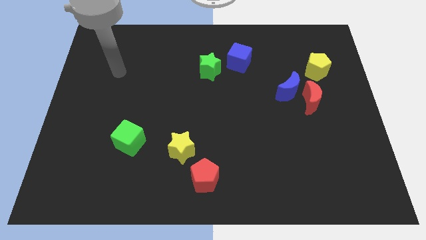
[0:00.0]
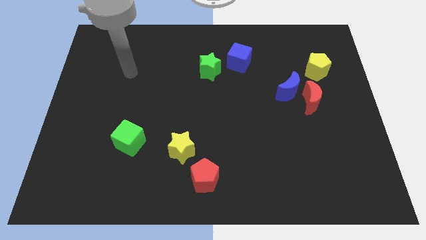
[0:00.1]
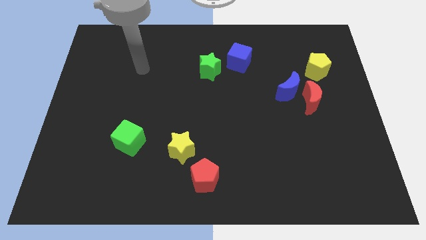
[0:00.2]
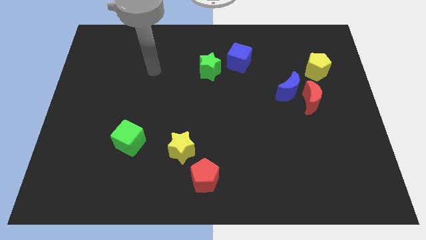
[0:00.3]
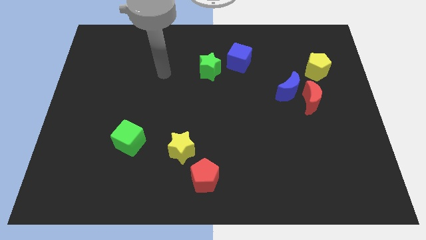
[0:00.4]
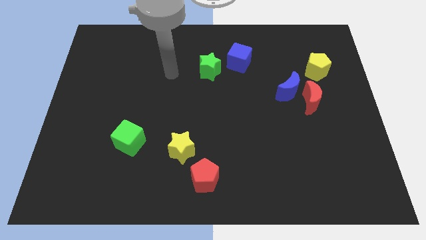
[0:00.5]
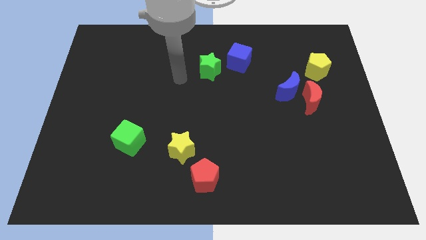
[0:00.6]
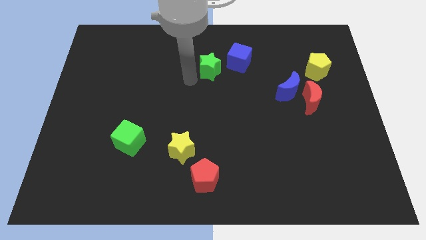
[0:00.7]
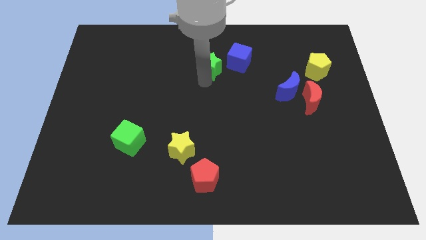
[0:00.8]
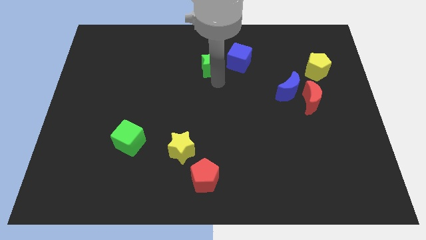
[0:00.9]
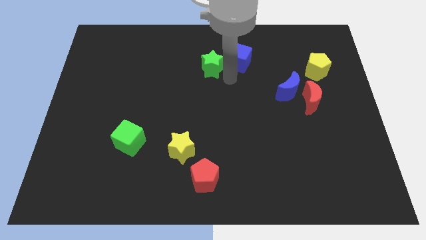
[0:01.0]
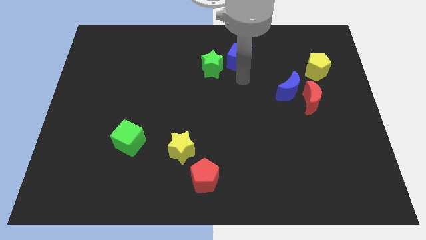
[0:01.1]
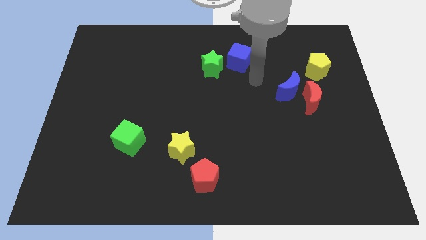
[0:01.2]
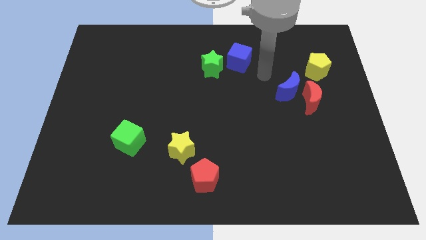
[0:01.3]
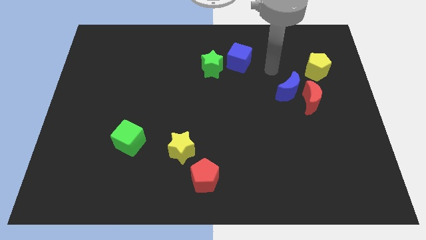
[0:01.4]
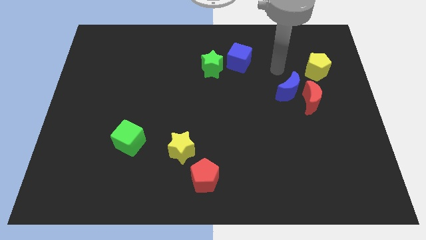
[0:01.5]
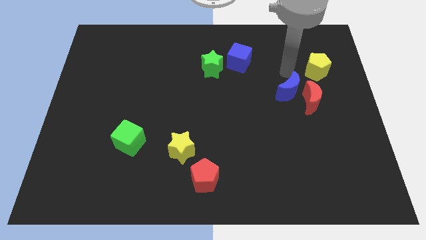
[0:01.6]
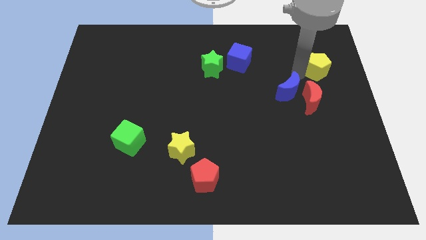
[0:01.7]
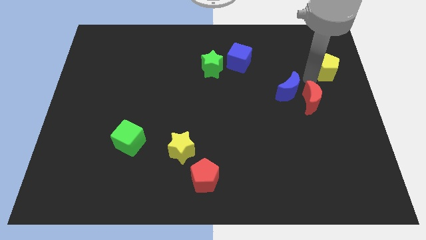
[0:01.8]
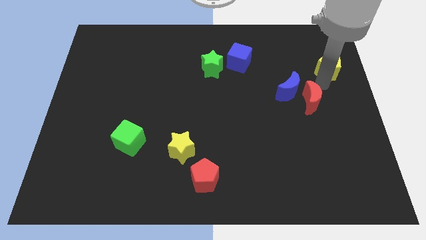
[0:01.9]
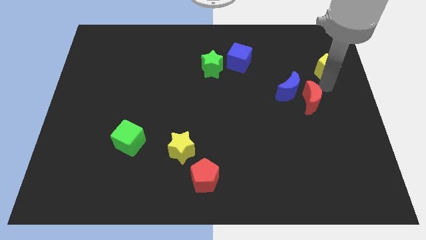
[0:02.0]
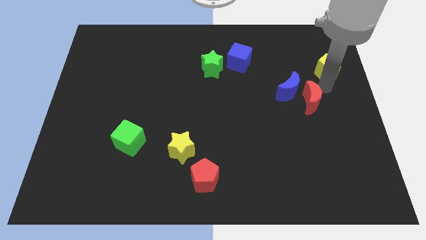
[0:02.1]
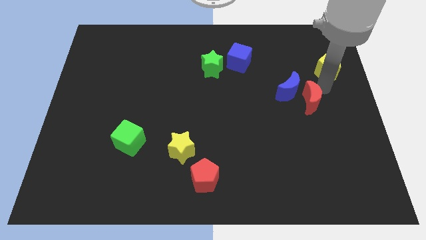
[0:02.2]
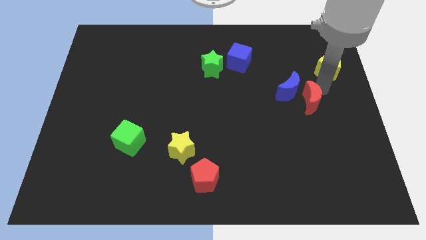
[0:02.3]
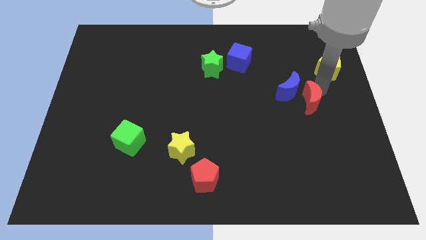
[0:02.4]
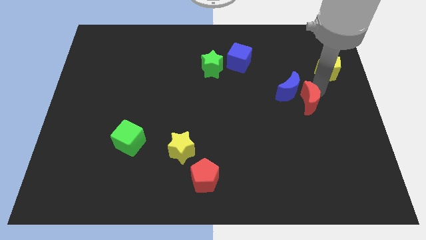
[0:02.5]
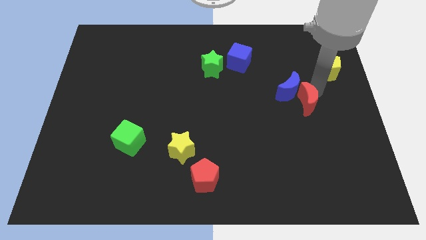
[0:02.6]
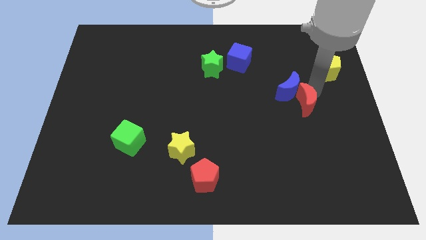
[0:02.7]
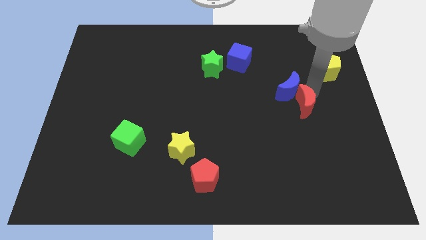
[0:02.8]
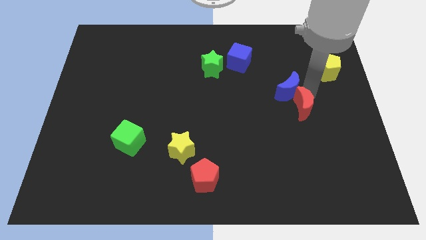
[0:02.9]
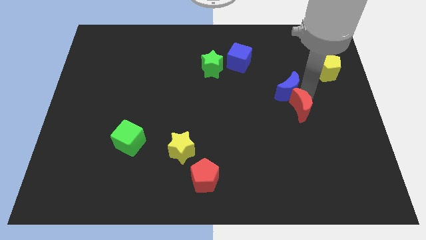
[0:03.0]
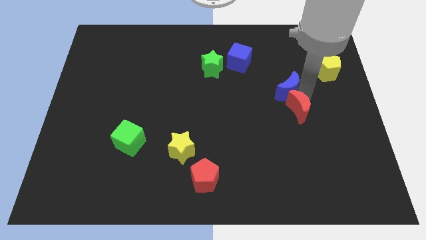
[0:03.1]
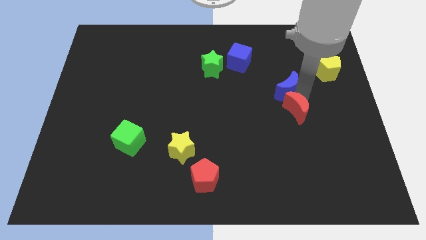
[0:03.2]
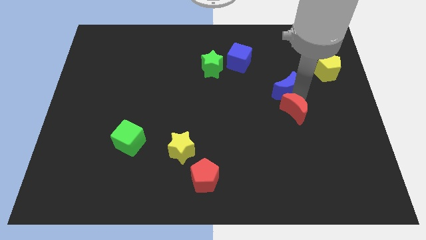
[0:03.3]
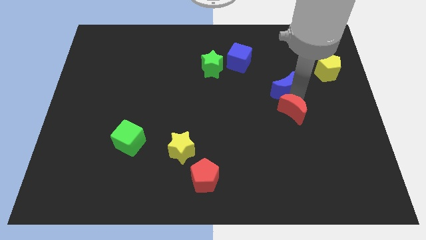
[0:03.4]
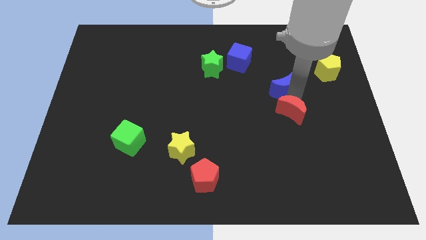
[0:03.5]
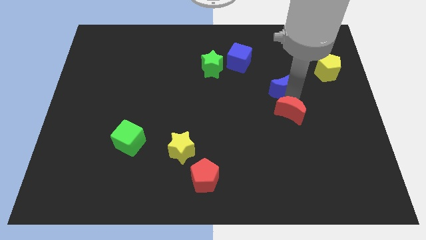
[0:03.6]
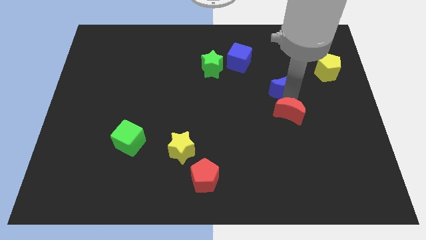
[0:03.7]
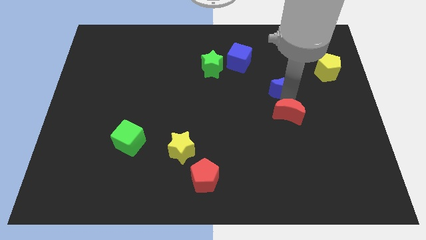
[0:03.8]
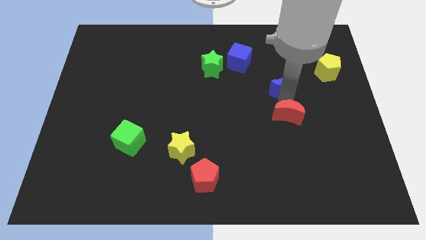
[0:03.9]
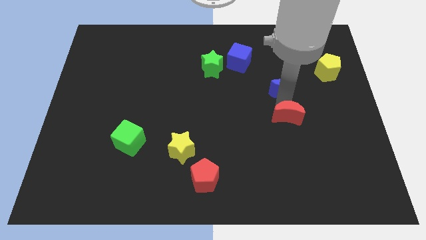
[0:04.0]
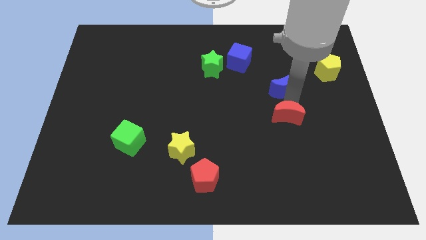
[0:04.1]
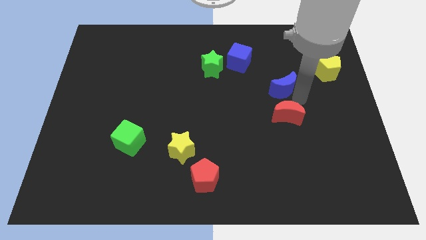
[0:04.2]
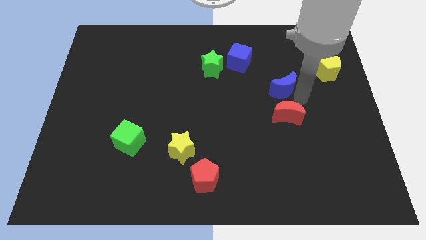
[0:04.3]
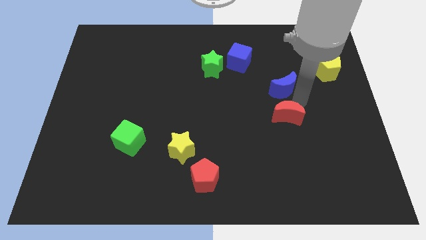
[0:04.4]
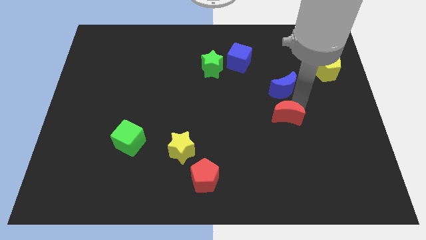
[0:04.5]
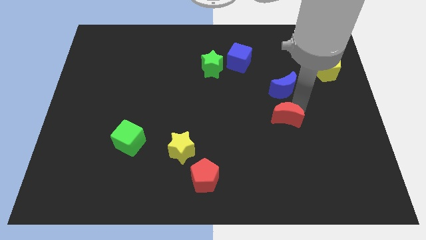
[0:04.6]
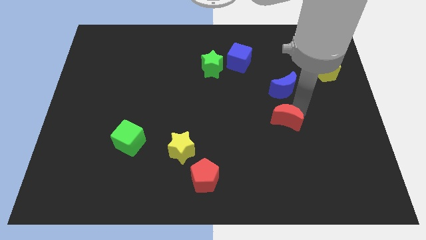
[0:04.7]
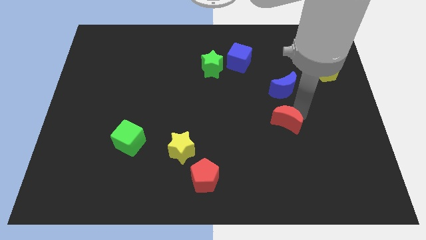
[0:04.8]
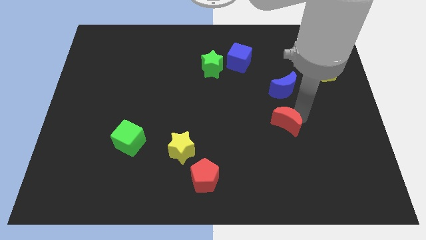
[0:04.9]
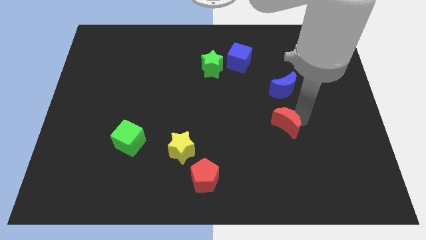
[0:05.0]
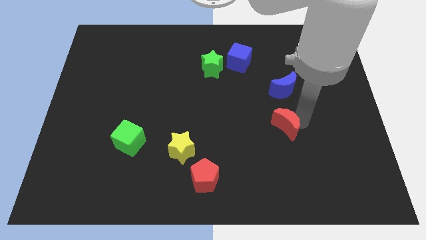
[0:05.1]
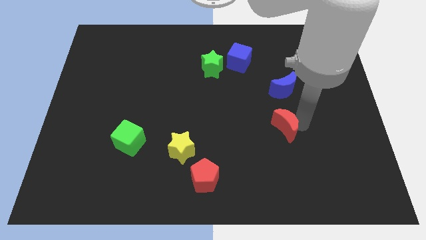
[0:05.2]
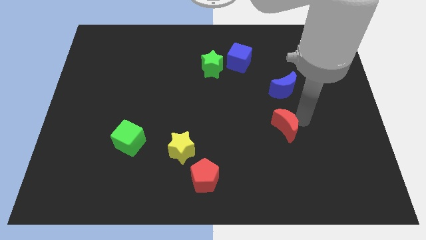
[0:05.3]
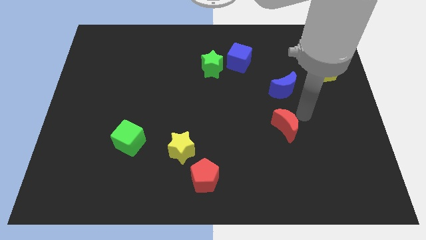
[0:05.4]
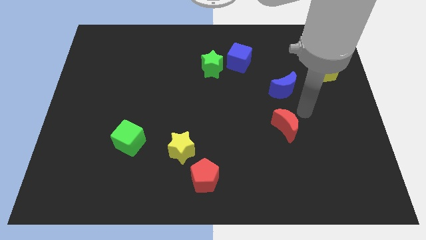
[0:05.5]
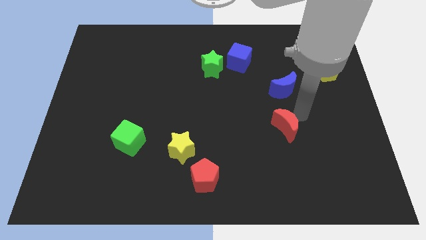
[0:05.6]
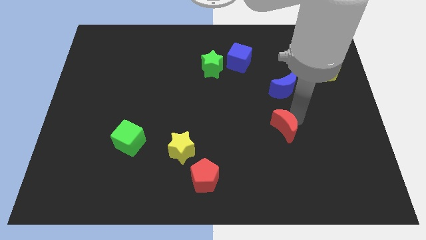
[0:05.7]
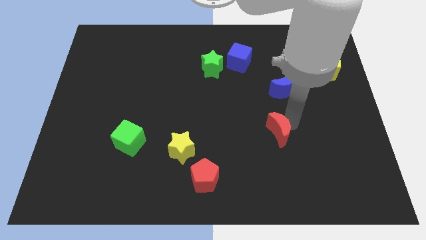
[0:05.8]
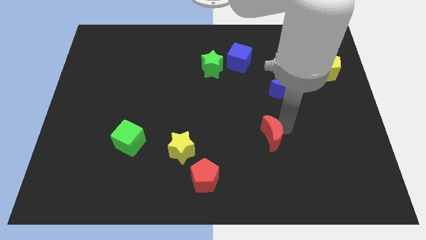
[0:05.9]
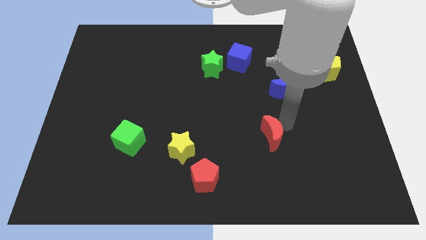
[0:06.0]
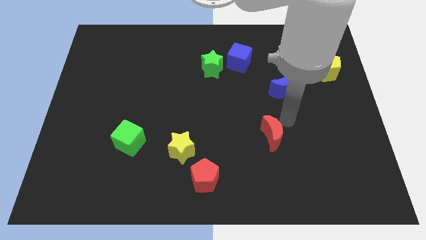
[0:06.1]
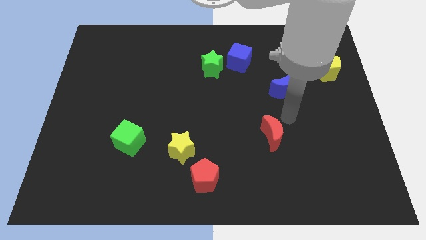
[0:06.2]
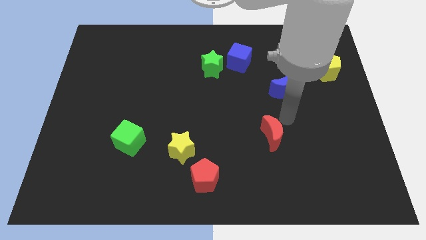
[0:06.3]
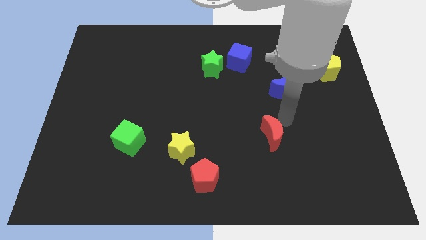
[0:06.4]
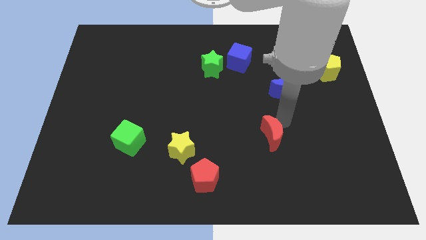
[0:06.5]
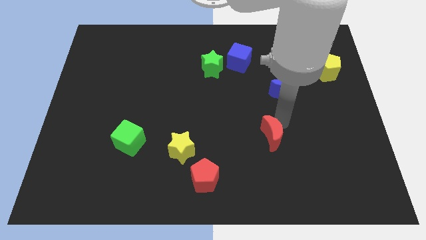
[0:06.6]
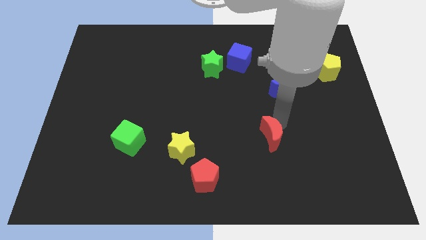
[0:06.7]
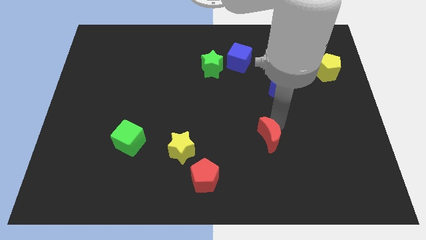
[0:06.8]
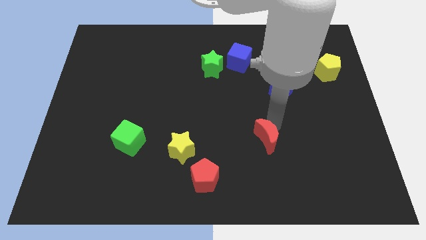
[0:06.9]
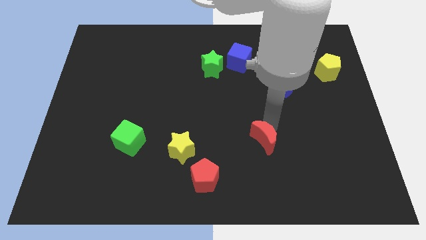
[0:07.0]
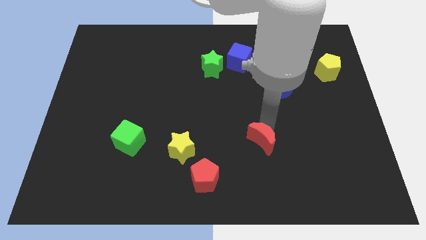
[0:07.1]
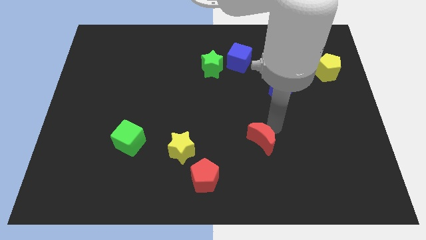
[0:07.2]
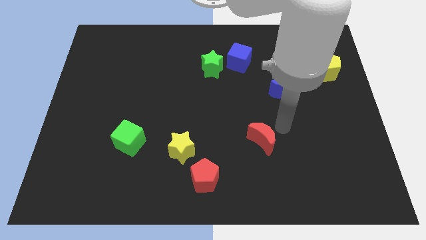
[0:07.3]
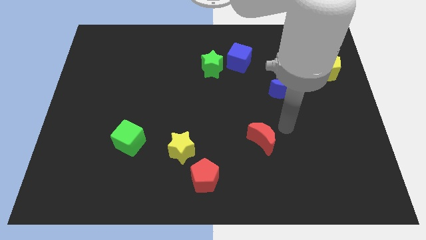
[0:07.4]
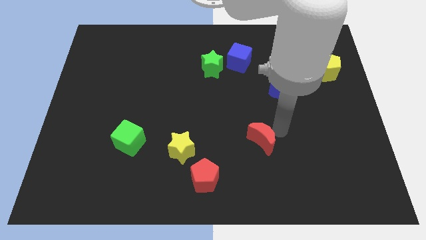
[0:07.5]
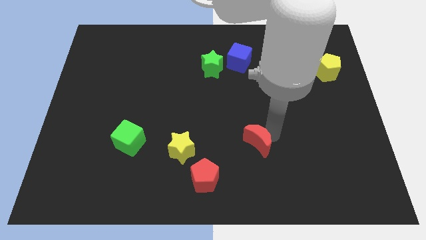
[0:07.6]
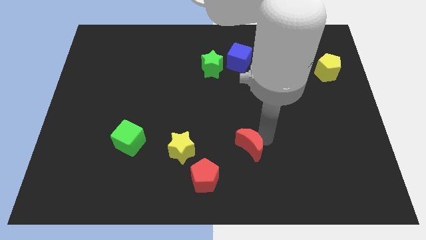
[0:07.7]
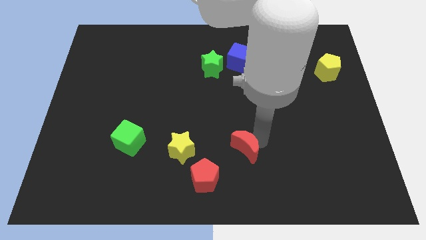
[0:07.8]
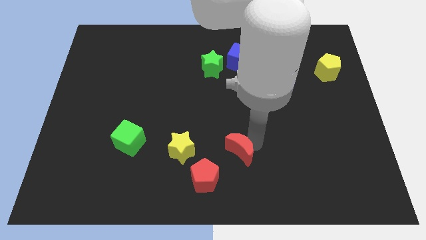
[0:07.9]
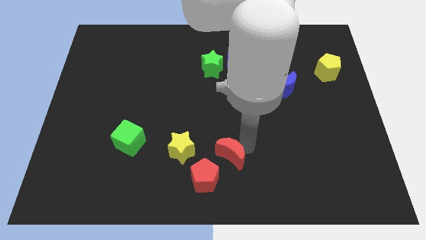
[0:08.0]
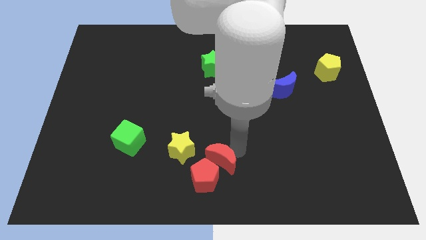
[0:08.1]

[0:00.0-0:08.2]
push the red moon towards the red pentagon
